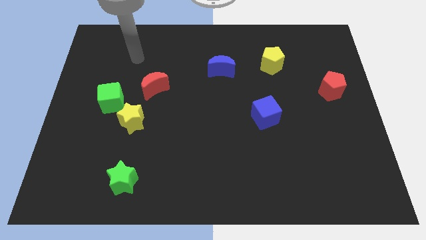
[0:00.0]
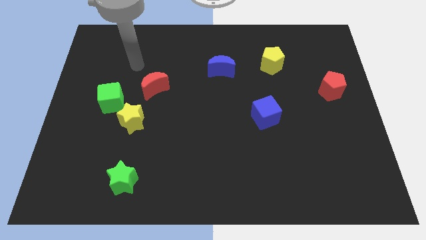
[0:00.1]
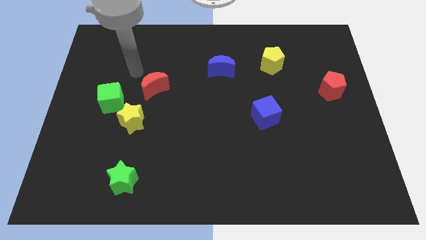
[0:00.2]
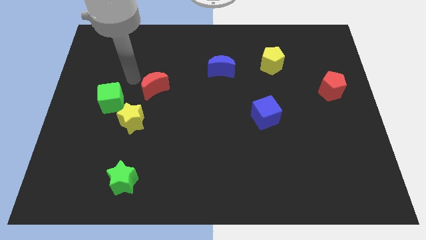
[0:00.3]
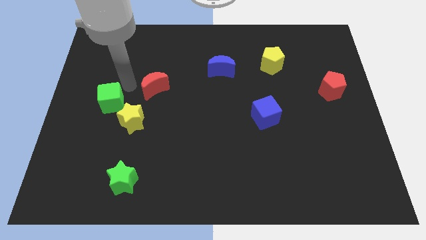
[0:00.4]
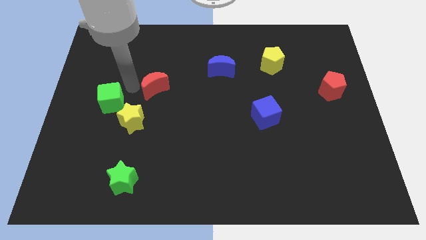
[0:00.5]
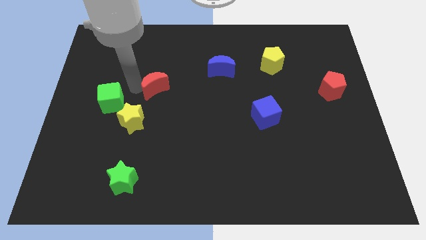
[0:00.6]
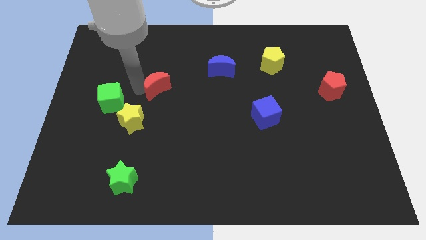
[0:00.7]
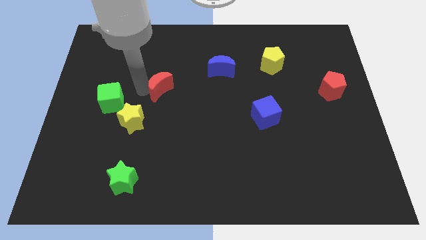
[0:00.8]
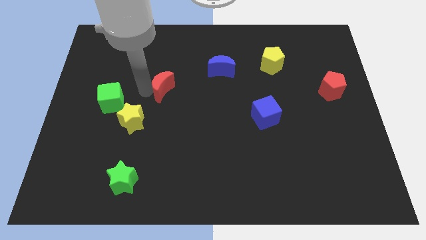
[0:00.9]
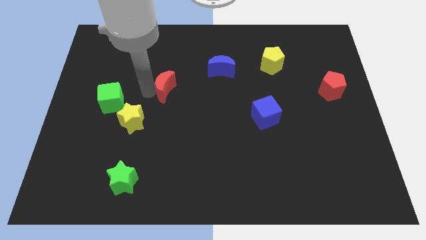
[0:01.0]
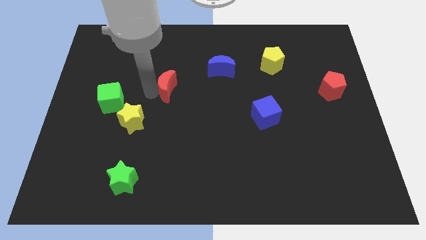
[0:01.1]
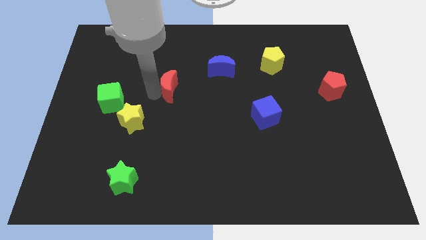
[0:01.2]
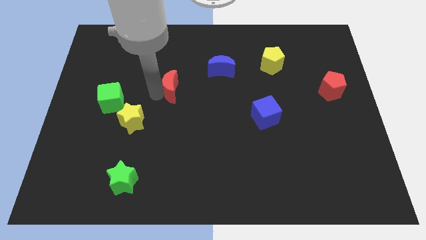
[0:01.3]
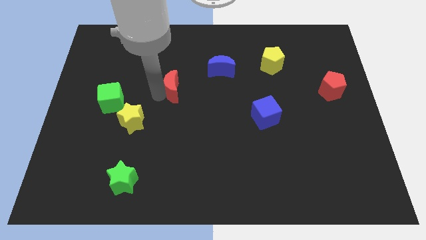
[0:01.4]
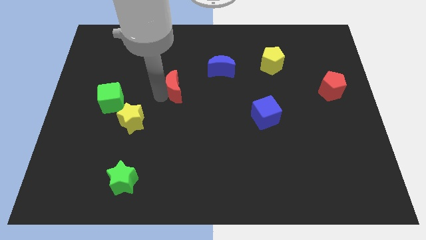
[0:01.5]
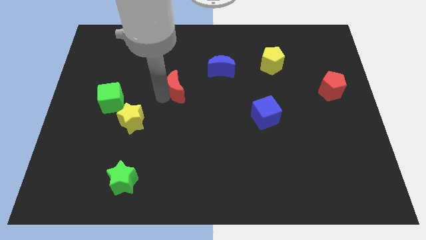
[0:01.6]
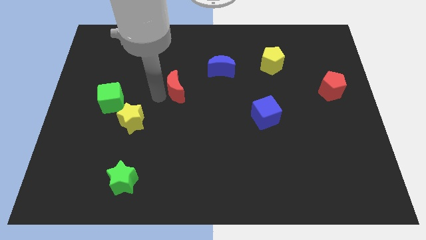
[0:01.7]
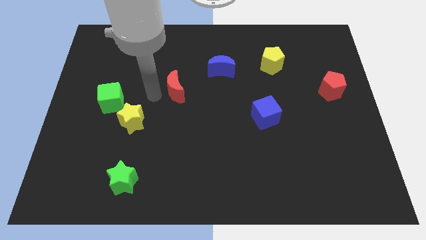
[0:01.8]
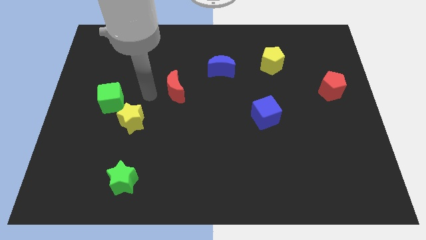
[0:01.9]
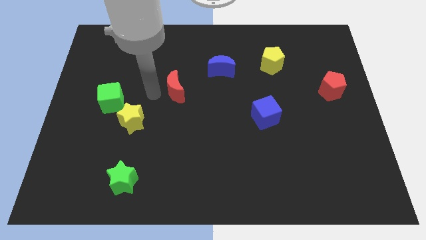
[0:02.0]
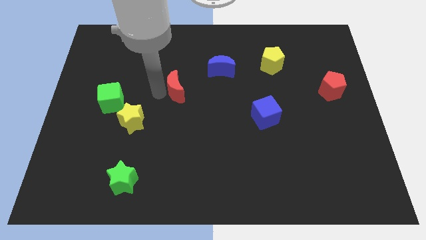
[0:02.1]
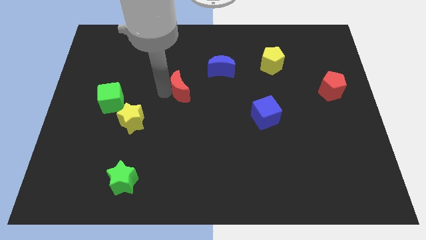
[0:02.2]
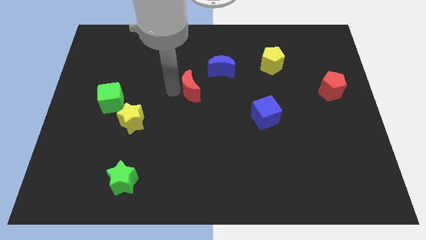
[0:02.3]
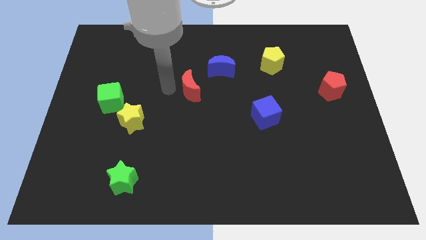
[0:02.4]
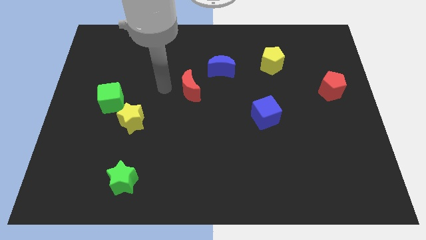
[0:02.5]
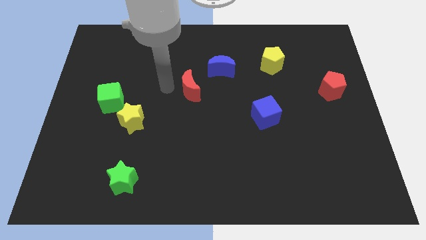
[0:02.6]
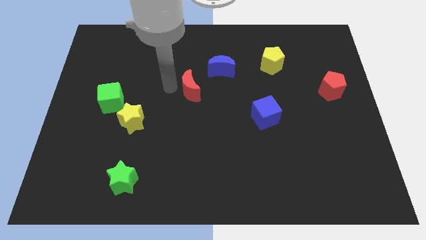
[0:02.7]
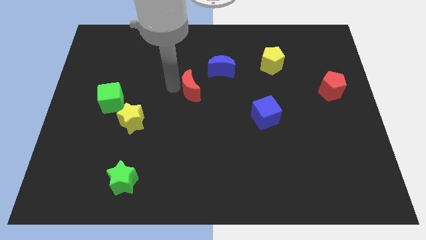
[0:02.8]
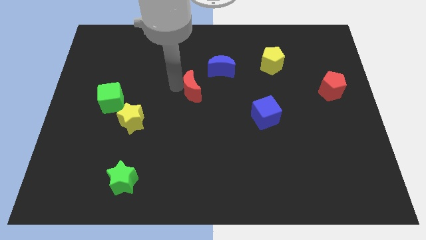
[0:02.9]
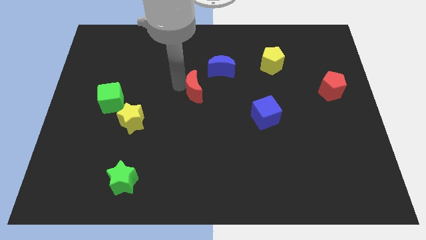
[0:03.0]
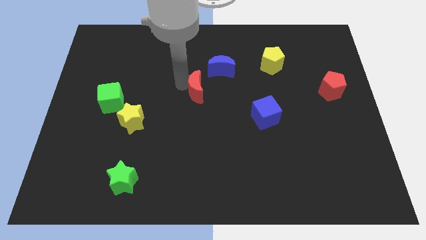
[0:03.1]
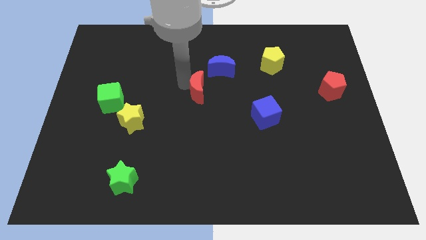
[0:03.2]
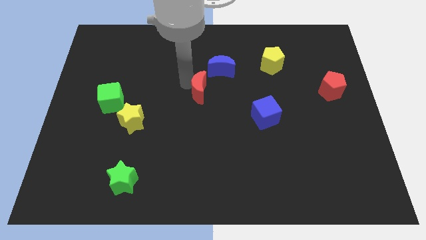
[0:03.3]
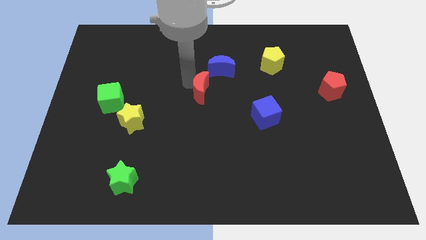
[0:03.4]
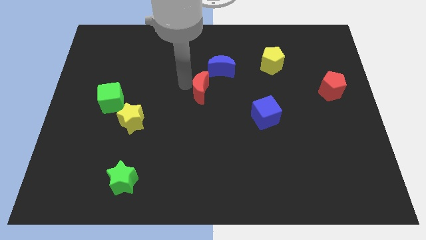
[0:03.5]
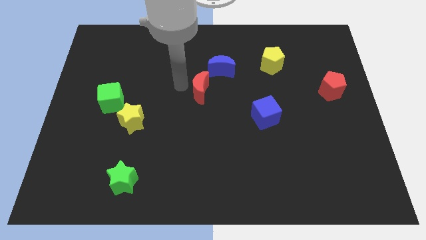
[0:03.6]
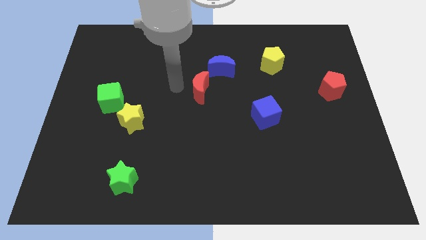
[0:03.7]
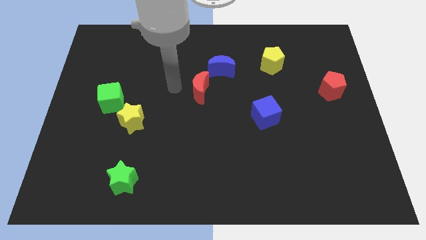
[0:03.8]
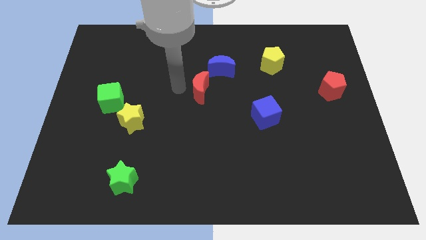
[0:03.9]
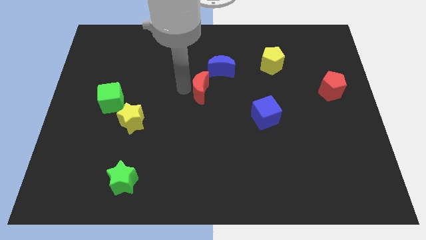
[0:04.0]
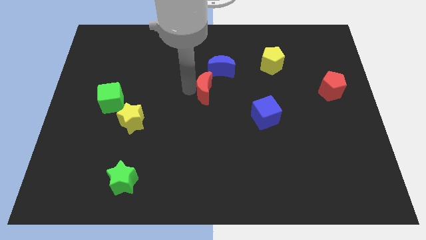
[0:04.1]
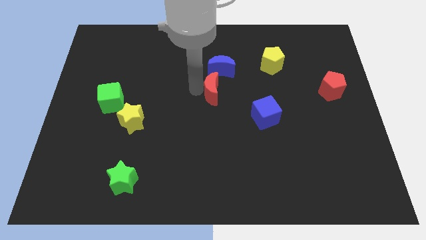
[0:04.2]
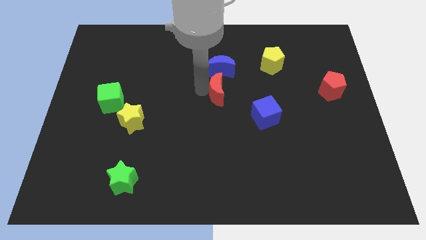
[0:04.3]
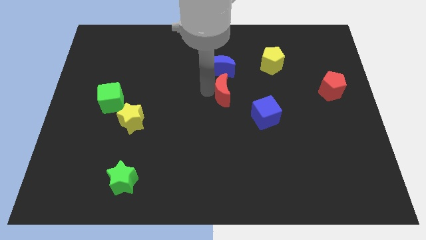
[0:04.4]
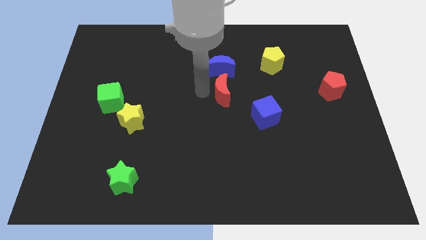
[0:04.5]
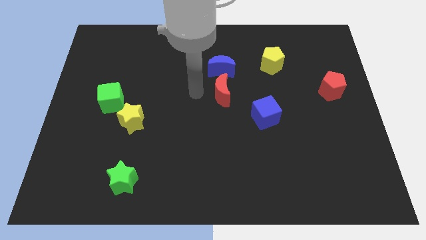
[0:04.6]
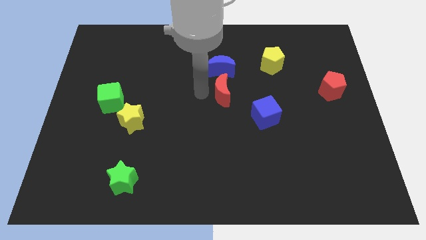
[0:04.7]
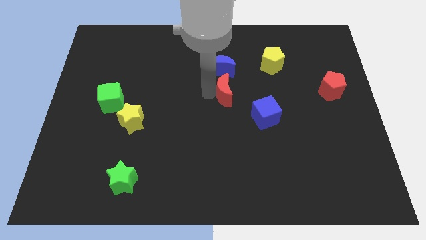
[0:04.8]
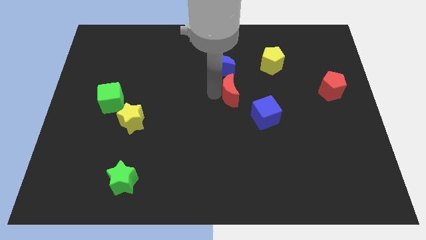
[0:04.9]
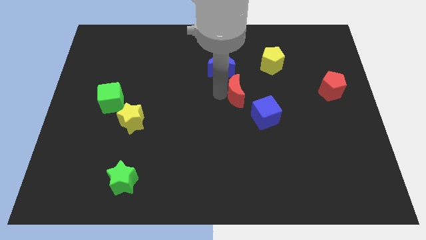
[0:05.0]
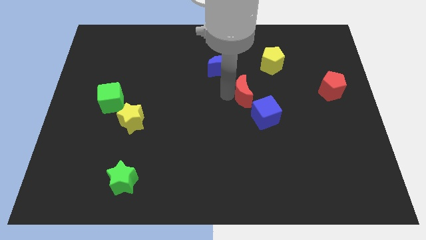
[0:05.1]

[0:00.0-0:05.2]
slide the red moon right

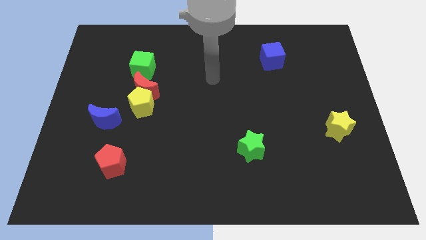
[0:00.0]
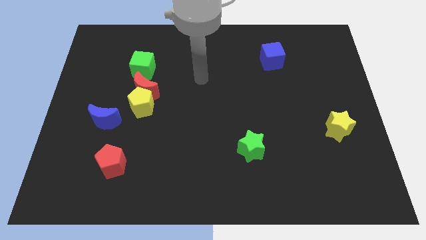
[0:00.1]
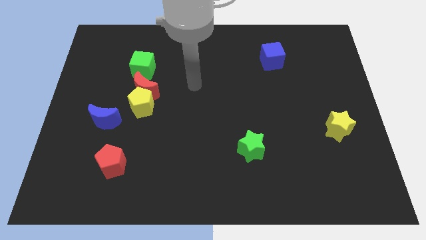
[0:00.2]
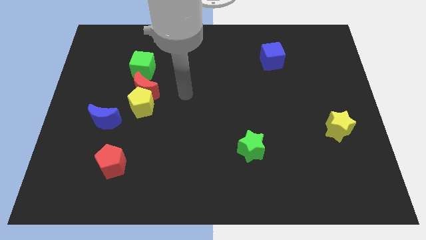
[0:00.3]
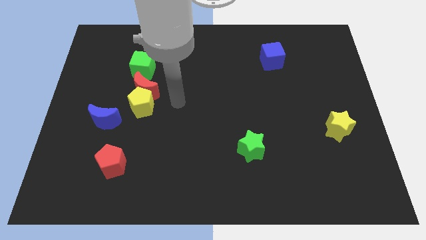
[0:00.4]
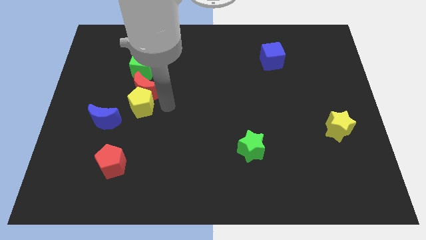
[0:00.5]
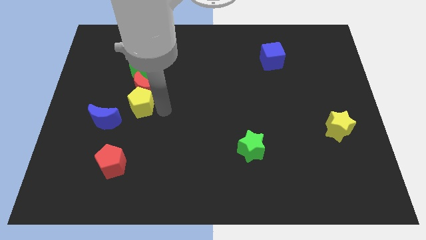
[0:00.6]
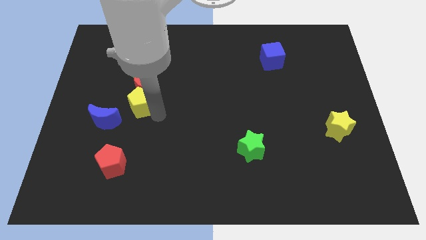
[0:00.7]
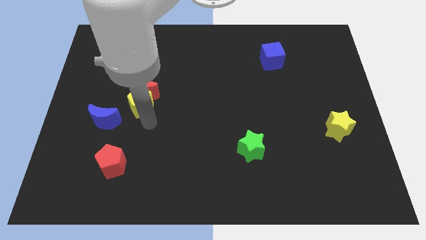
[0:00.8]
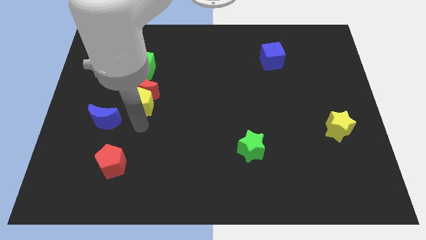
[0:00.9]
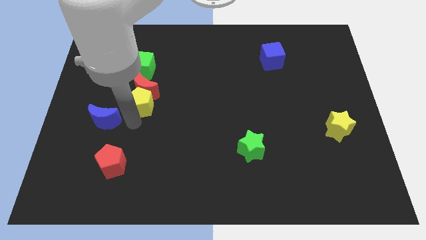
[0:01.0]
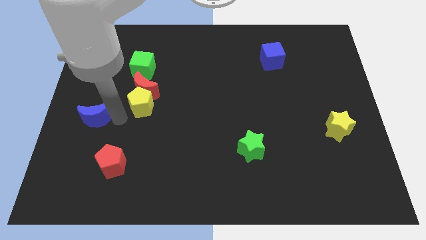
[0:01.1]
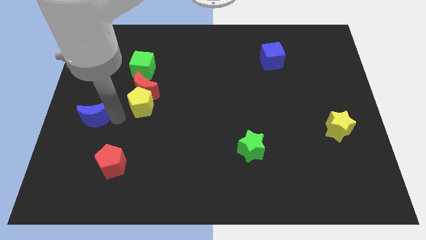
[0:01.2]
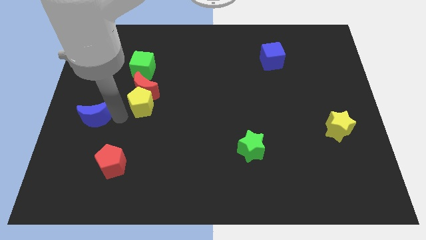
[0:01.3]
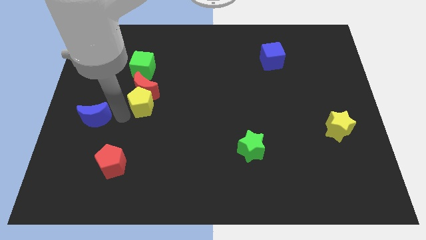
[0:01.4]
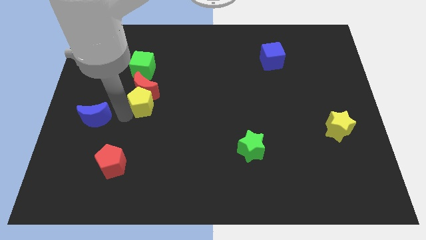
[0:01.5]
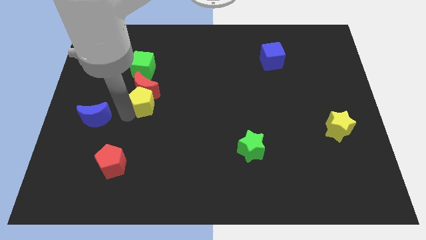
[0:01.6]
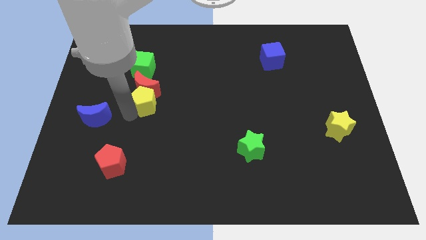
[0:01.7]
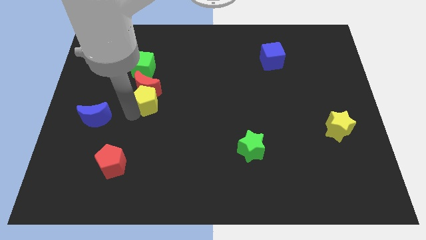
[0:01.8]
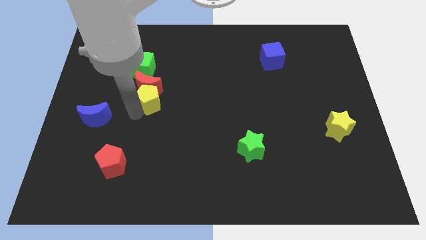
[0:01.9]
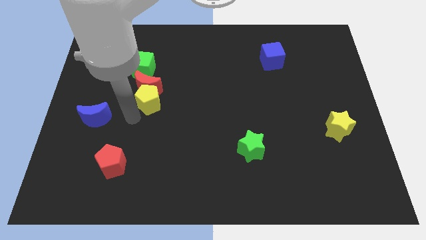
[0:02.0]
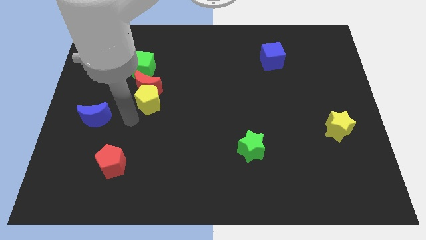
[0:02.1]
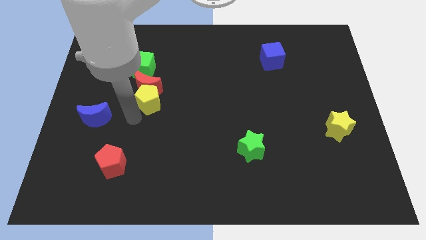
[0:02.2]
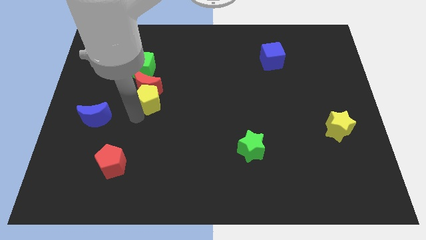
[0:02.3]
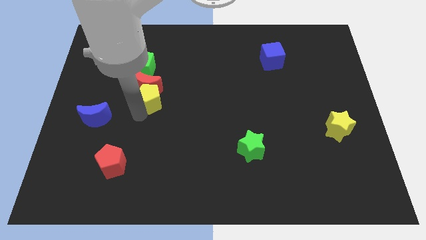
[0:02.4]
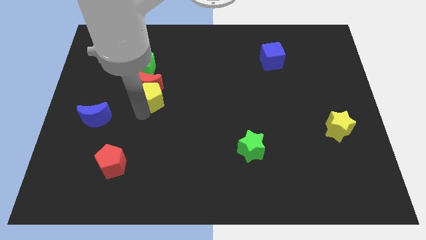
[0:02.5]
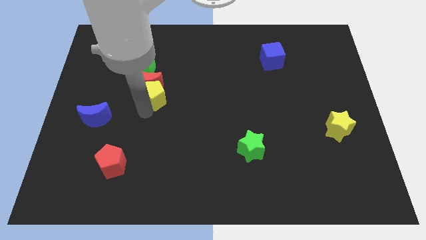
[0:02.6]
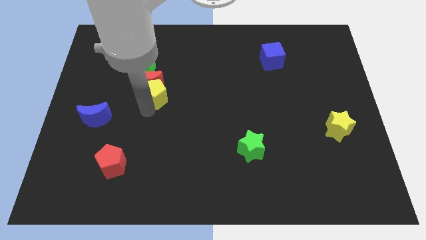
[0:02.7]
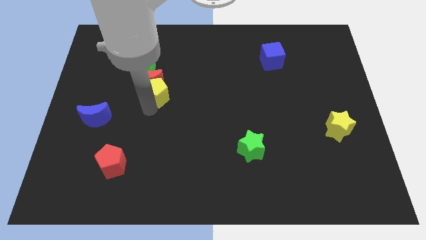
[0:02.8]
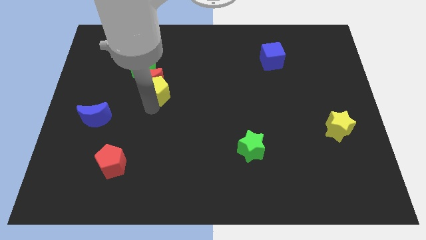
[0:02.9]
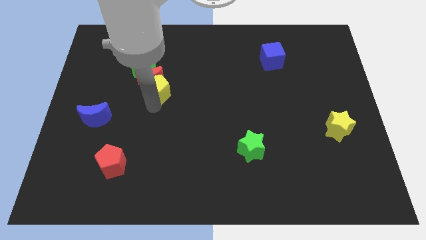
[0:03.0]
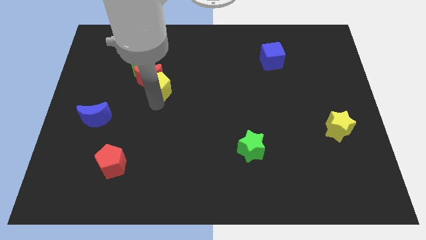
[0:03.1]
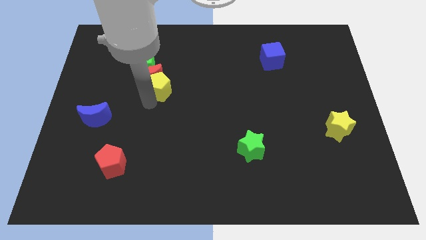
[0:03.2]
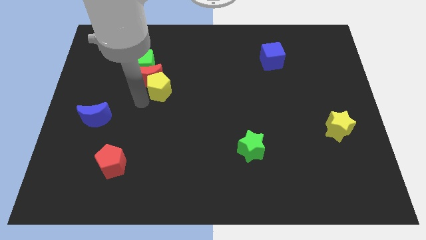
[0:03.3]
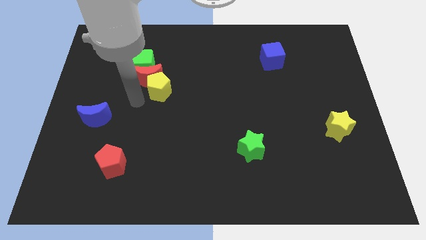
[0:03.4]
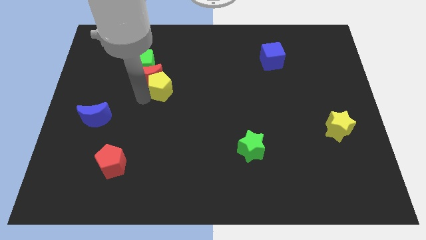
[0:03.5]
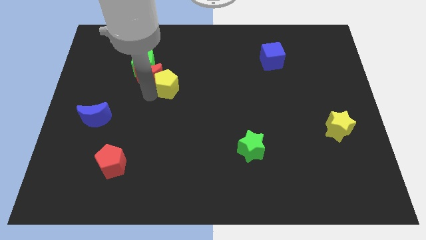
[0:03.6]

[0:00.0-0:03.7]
move the yellow pentagon upwards and right somewhat
